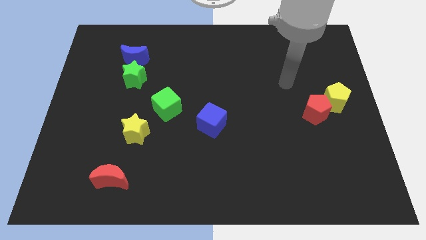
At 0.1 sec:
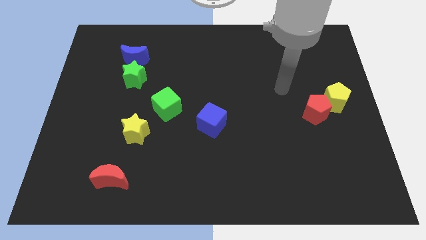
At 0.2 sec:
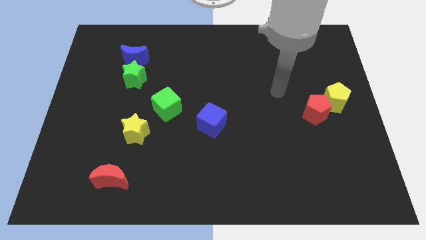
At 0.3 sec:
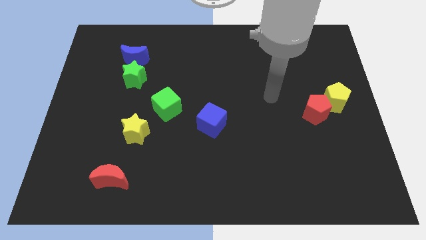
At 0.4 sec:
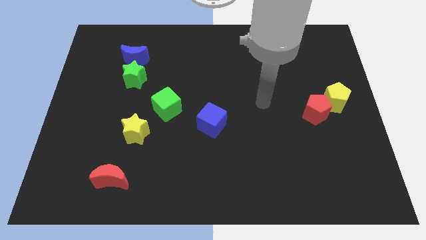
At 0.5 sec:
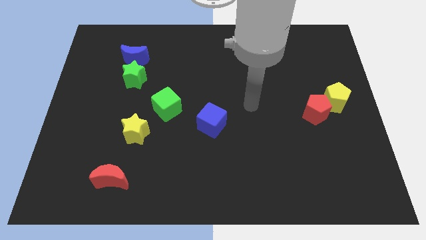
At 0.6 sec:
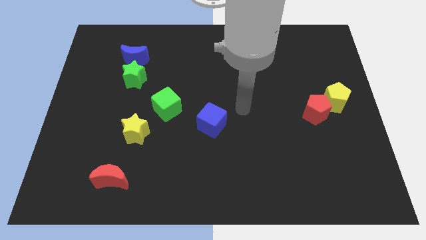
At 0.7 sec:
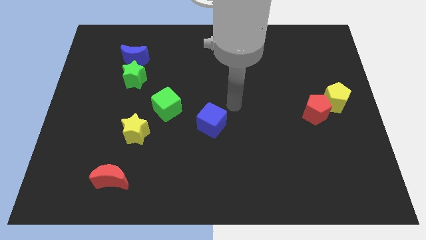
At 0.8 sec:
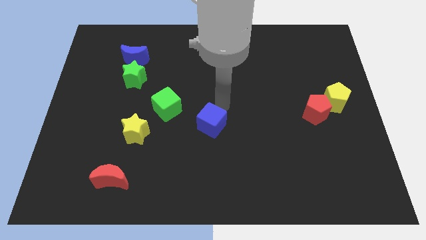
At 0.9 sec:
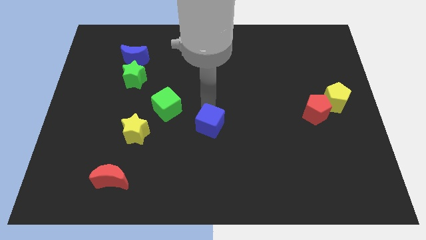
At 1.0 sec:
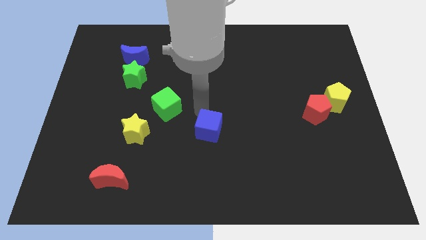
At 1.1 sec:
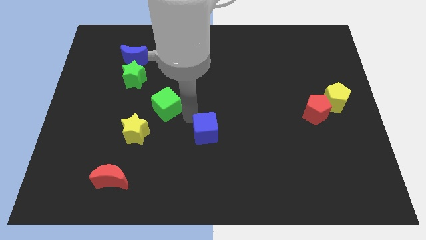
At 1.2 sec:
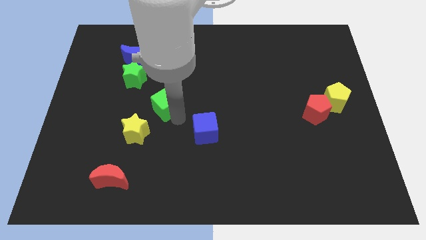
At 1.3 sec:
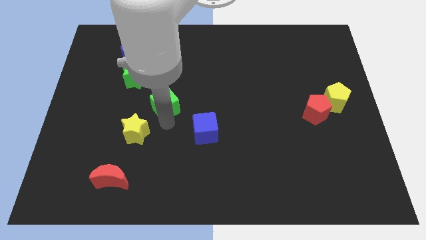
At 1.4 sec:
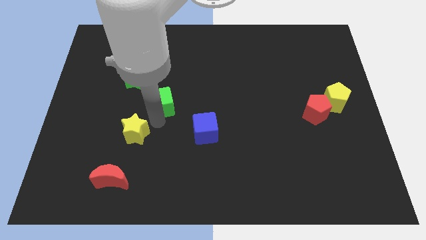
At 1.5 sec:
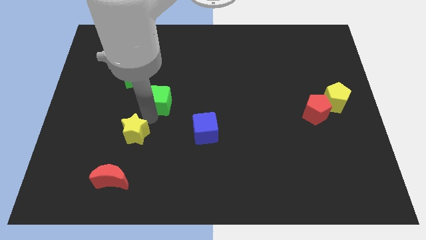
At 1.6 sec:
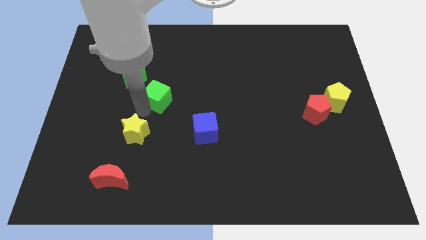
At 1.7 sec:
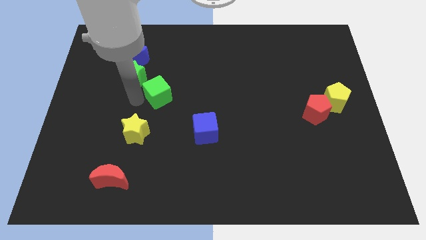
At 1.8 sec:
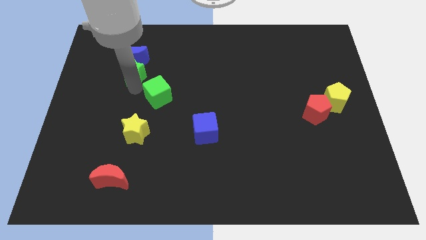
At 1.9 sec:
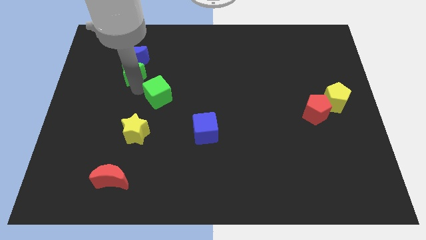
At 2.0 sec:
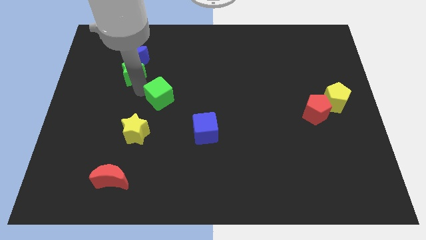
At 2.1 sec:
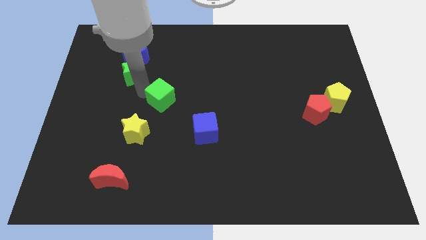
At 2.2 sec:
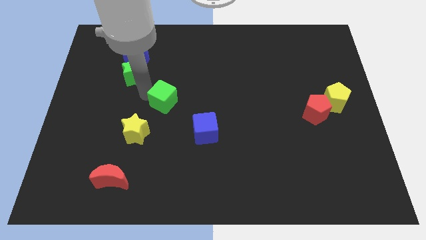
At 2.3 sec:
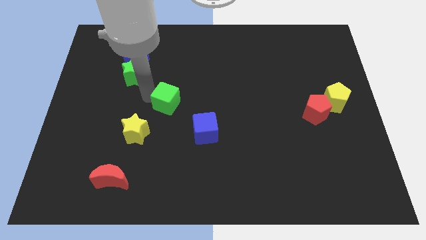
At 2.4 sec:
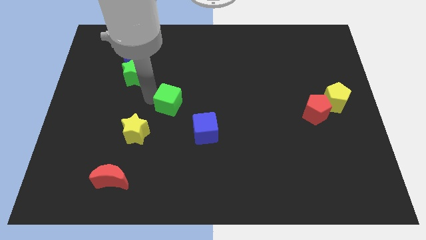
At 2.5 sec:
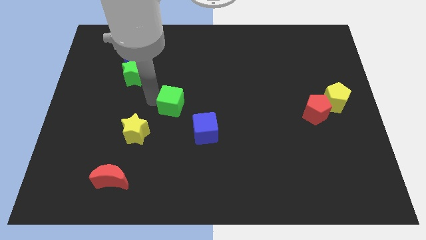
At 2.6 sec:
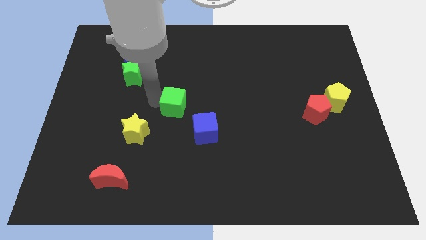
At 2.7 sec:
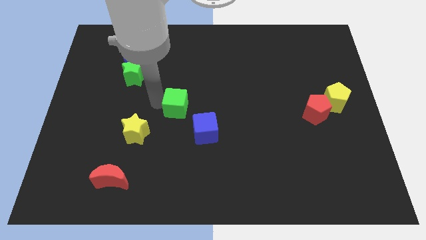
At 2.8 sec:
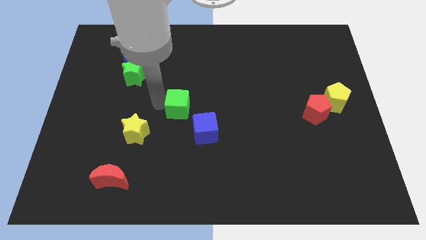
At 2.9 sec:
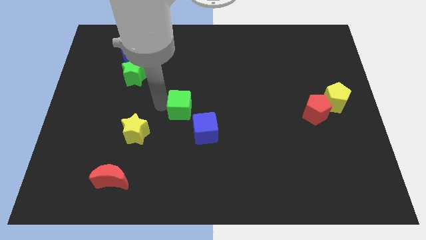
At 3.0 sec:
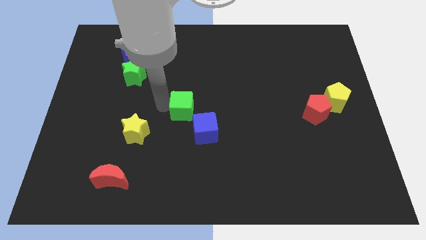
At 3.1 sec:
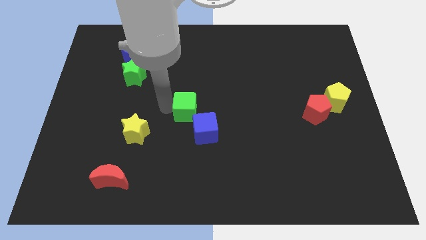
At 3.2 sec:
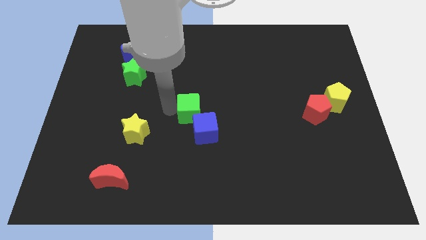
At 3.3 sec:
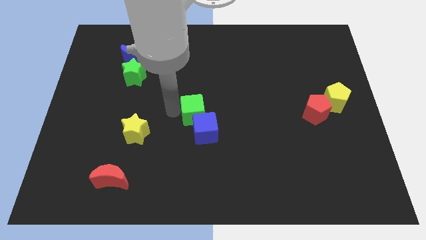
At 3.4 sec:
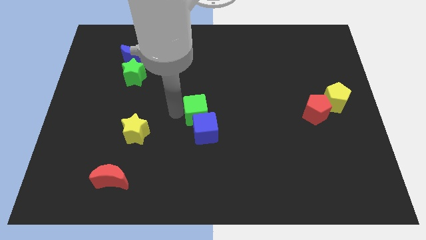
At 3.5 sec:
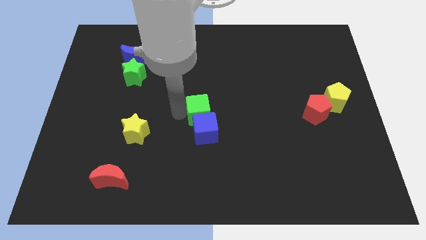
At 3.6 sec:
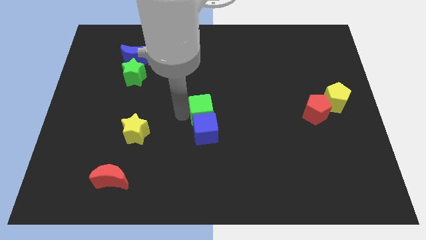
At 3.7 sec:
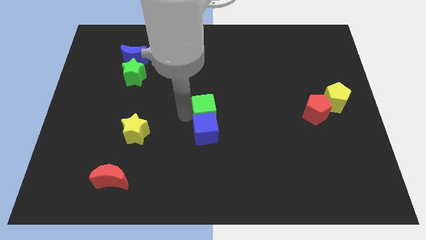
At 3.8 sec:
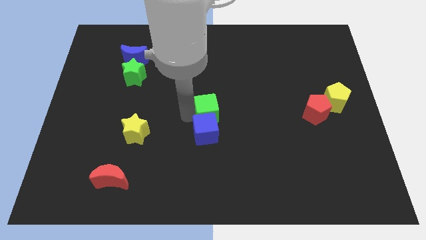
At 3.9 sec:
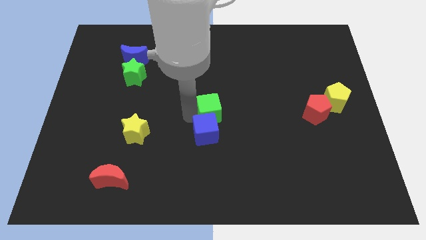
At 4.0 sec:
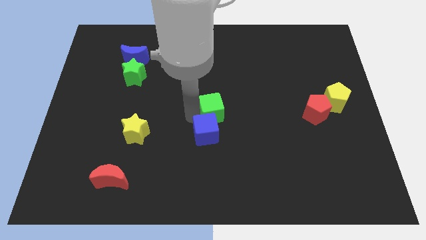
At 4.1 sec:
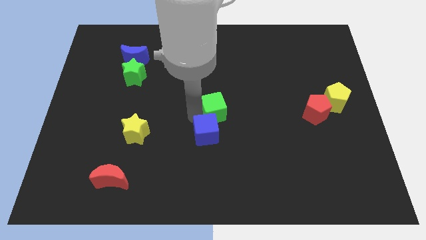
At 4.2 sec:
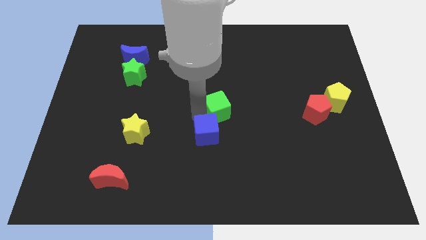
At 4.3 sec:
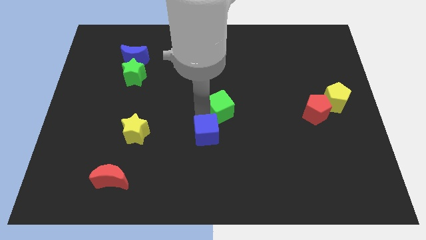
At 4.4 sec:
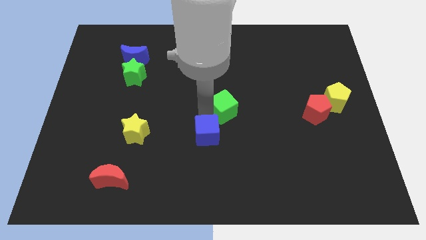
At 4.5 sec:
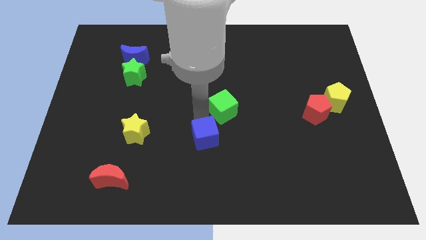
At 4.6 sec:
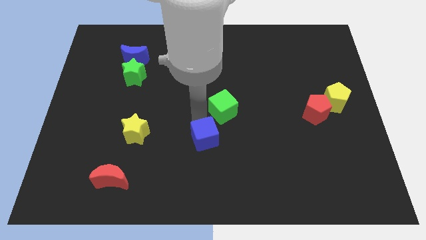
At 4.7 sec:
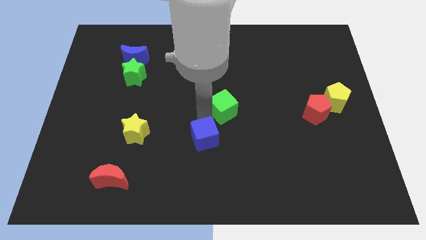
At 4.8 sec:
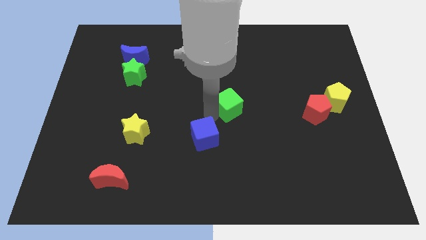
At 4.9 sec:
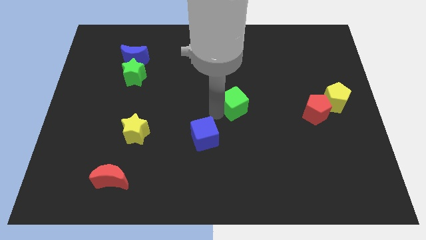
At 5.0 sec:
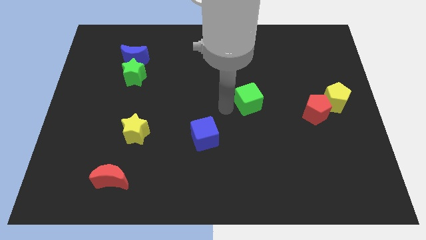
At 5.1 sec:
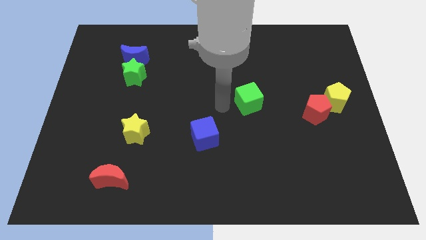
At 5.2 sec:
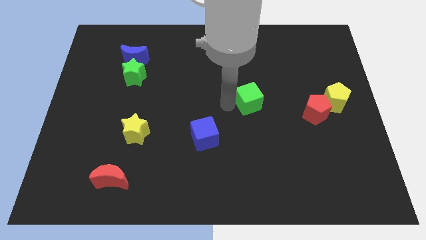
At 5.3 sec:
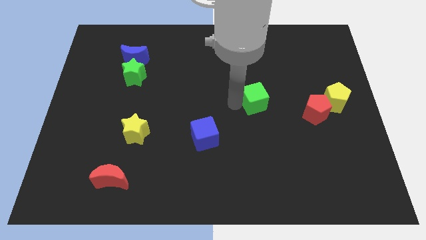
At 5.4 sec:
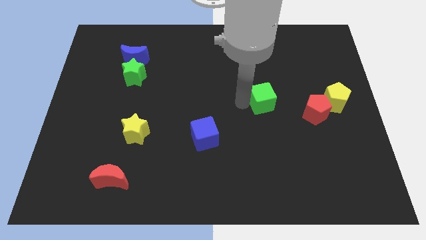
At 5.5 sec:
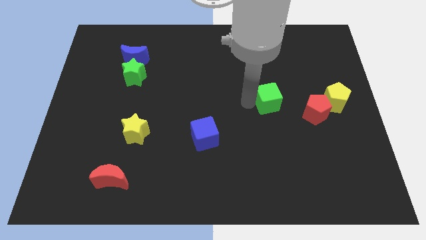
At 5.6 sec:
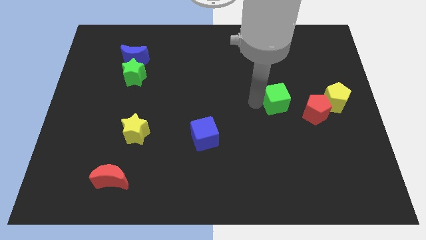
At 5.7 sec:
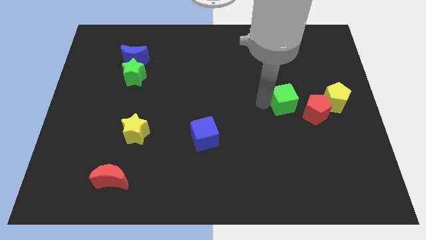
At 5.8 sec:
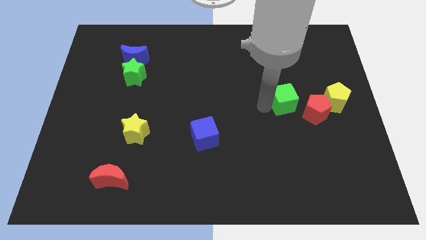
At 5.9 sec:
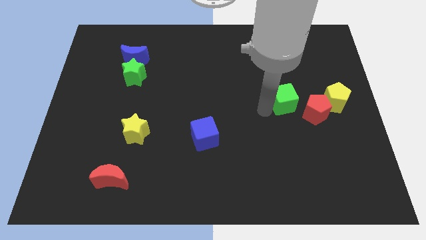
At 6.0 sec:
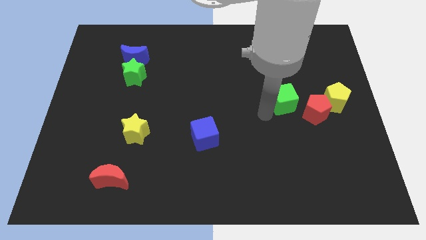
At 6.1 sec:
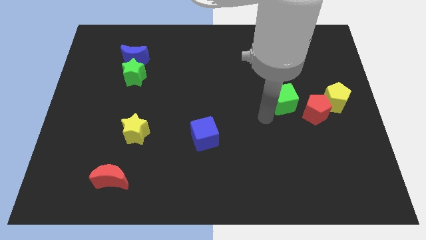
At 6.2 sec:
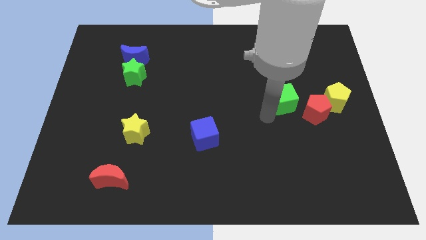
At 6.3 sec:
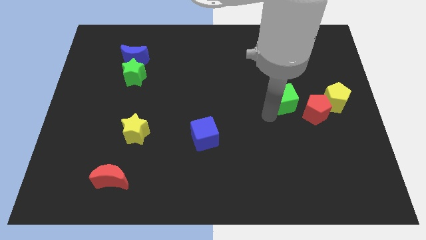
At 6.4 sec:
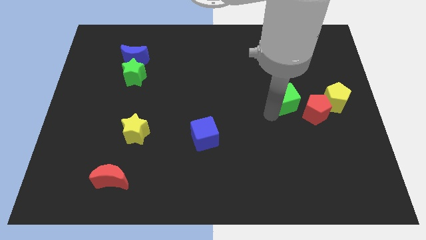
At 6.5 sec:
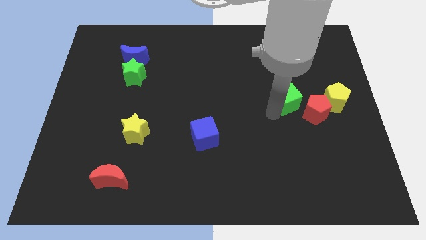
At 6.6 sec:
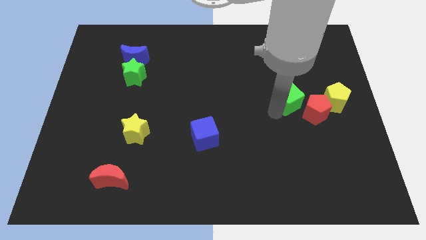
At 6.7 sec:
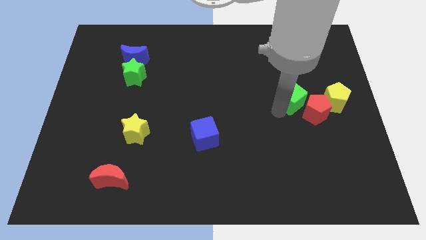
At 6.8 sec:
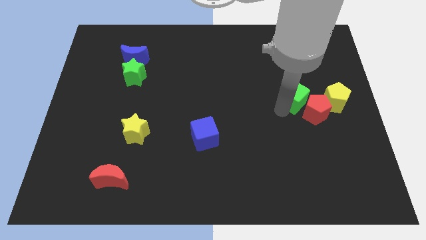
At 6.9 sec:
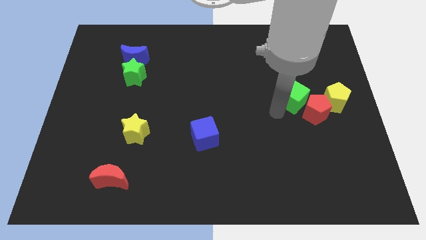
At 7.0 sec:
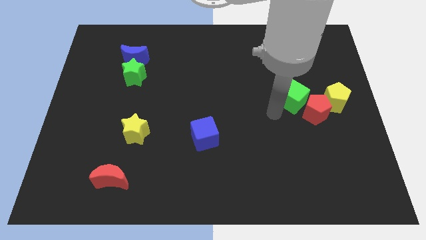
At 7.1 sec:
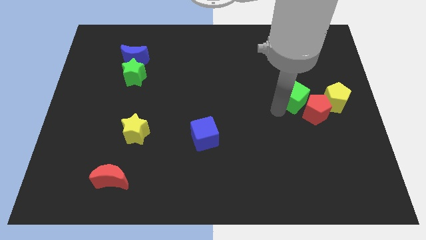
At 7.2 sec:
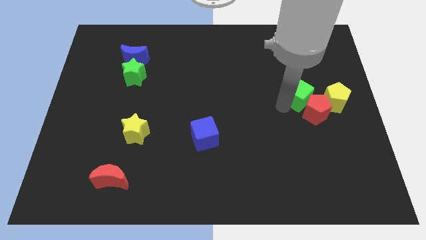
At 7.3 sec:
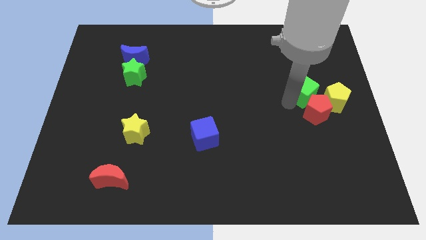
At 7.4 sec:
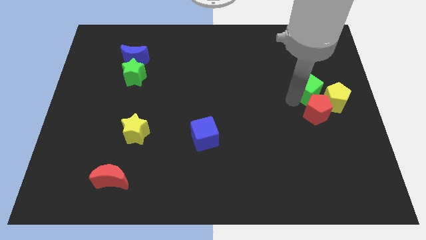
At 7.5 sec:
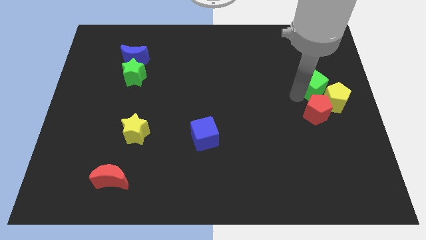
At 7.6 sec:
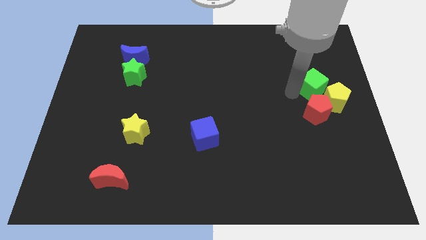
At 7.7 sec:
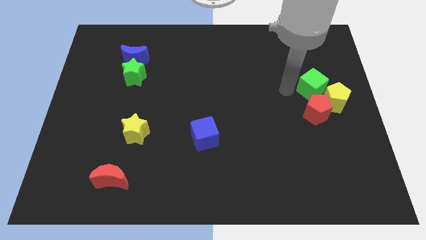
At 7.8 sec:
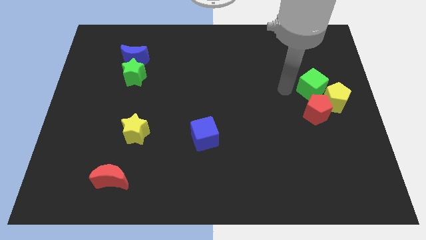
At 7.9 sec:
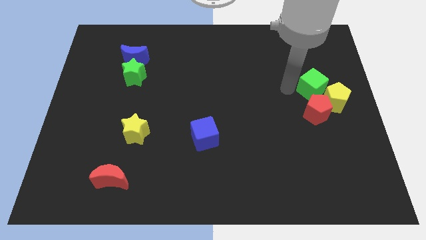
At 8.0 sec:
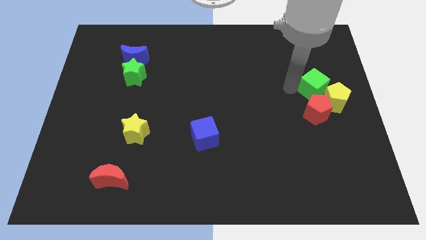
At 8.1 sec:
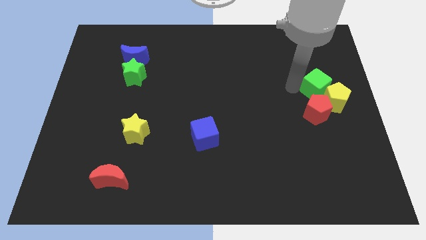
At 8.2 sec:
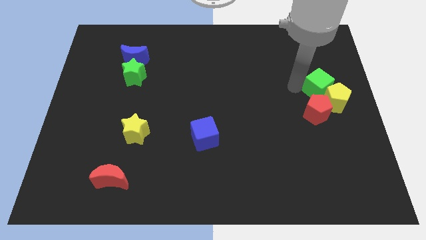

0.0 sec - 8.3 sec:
put the green cube to the right side of the board
